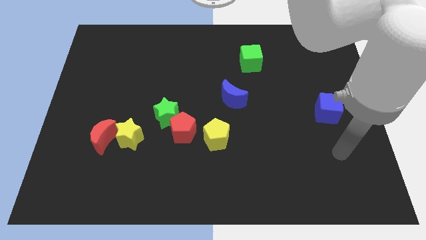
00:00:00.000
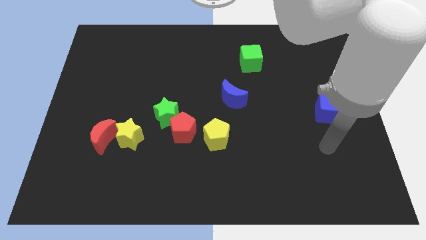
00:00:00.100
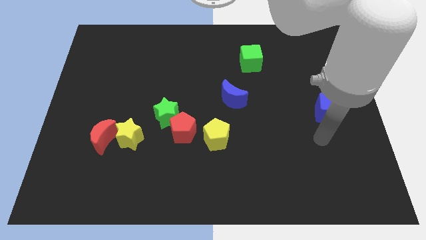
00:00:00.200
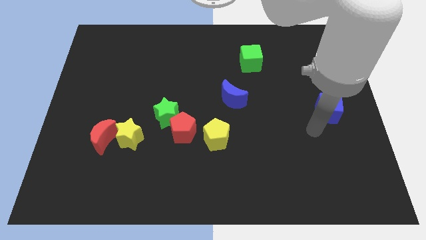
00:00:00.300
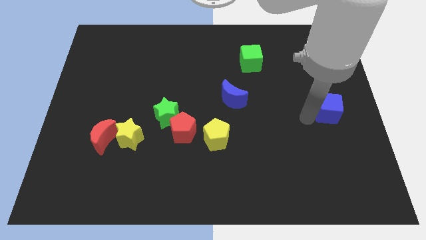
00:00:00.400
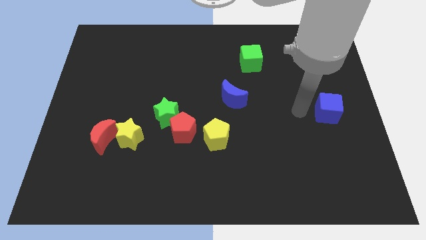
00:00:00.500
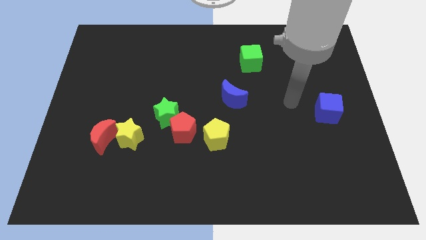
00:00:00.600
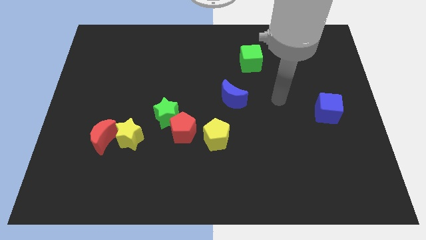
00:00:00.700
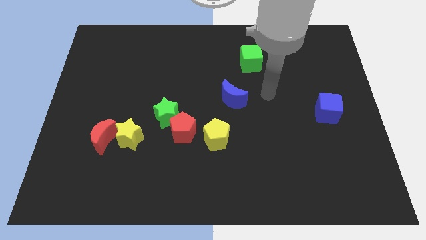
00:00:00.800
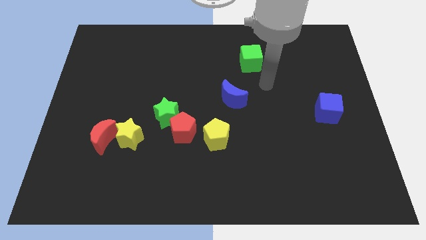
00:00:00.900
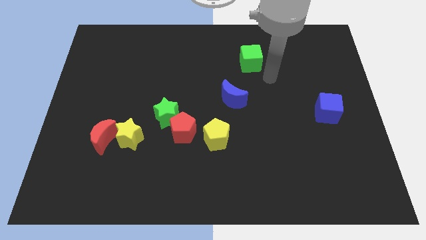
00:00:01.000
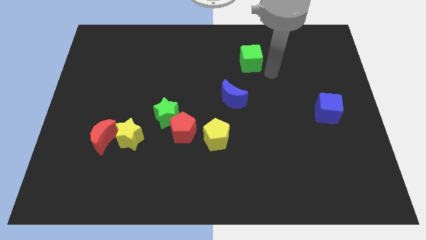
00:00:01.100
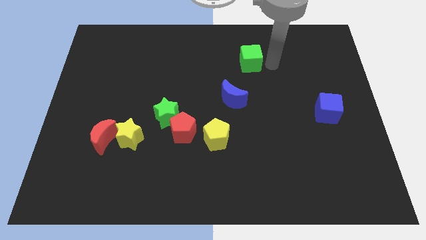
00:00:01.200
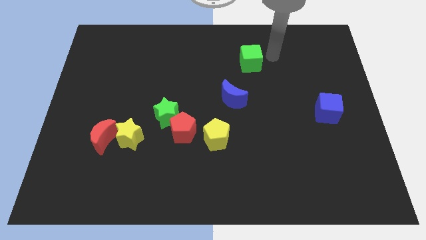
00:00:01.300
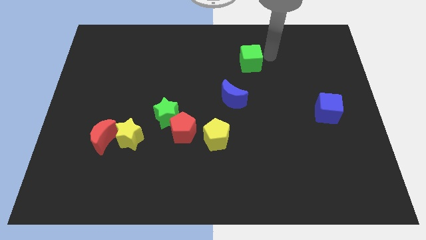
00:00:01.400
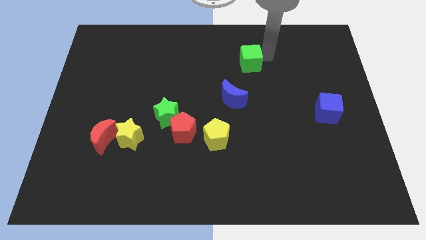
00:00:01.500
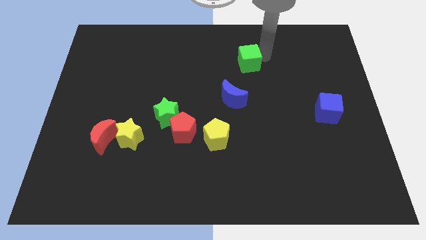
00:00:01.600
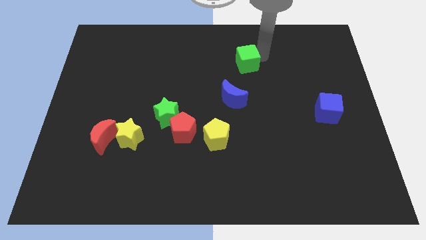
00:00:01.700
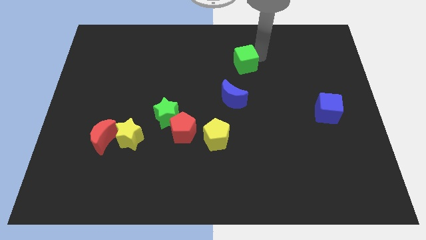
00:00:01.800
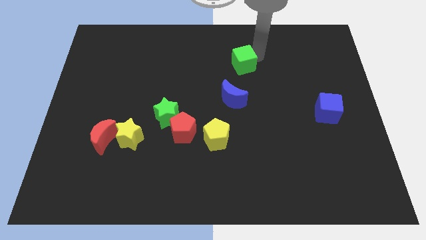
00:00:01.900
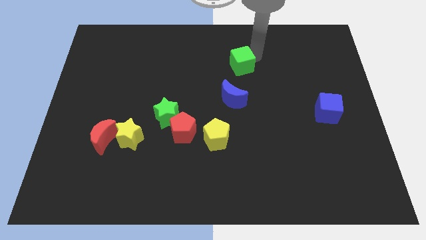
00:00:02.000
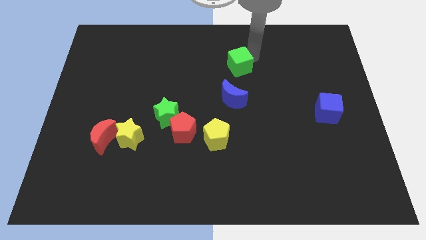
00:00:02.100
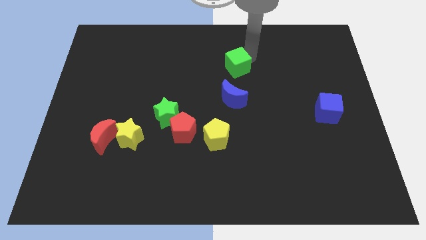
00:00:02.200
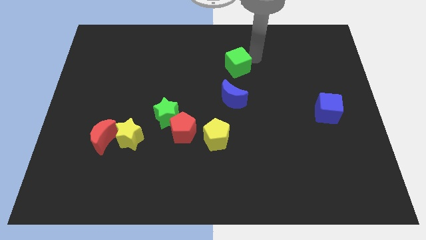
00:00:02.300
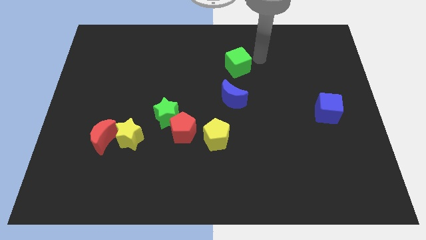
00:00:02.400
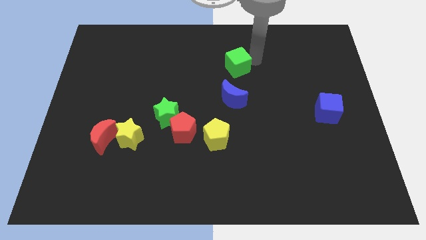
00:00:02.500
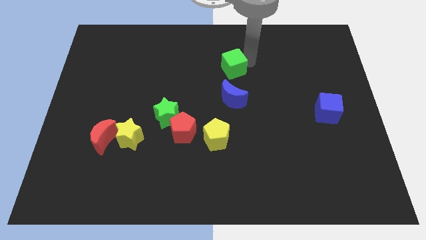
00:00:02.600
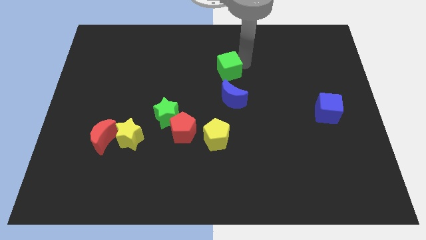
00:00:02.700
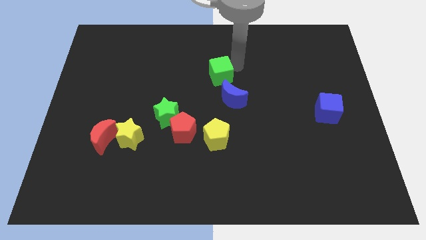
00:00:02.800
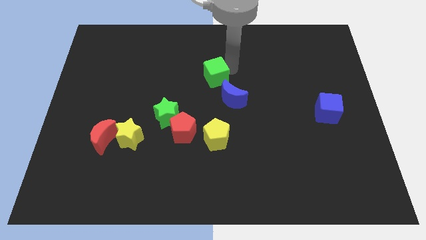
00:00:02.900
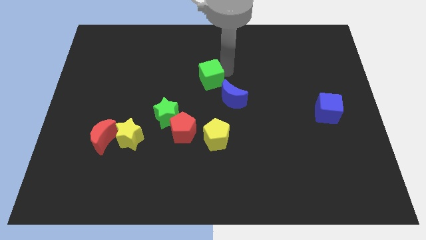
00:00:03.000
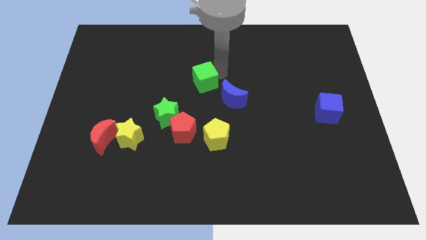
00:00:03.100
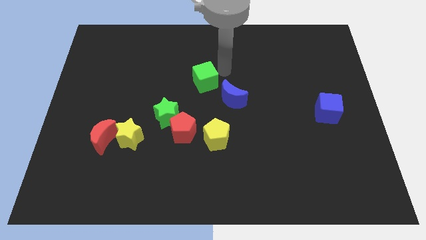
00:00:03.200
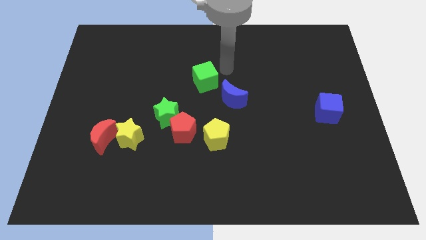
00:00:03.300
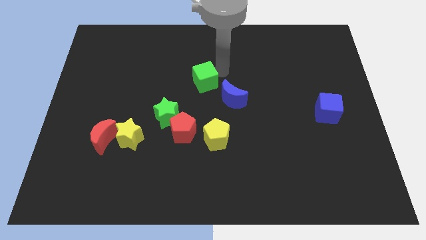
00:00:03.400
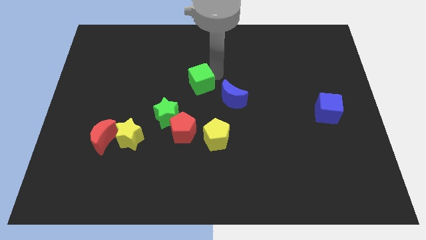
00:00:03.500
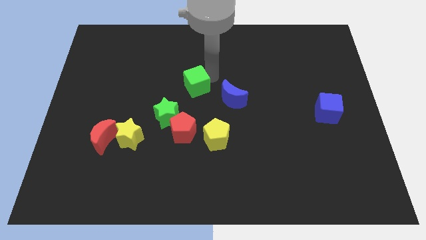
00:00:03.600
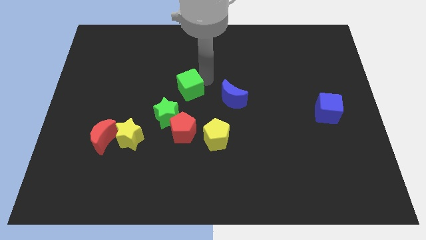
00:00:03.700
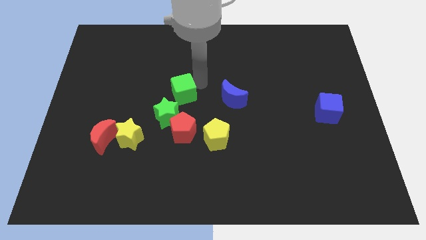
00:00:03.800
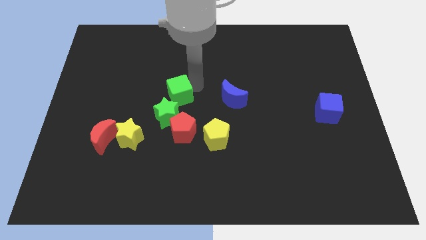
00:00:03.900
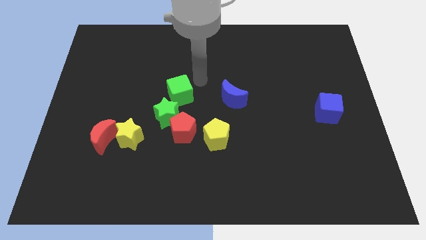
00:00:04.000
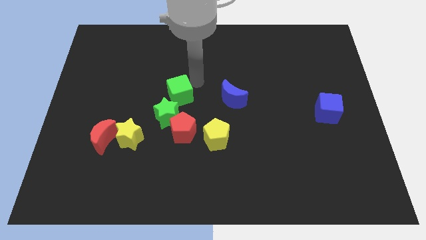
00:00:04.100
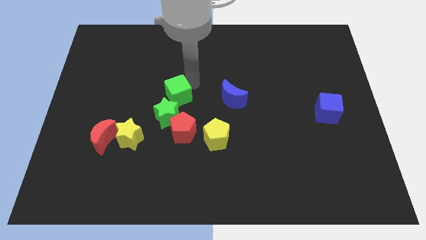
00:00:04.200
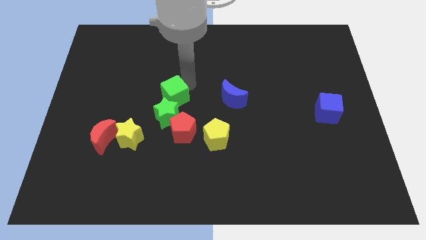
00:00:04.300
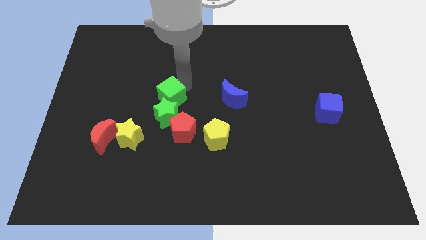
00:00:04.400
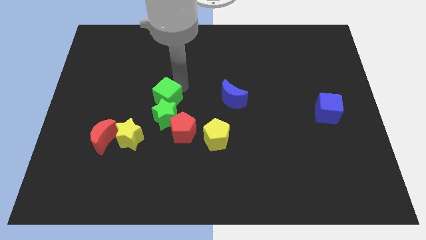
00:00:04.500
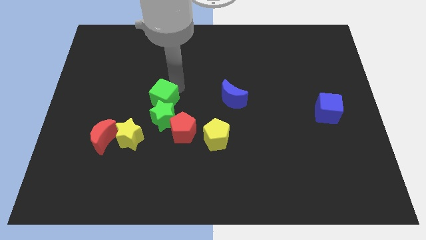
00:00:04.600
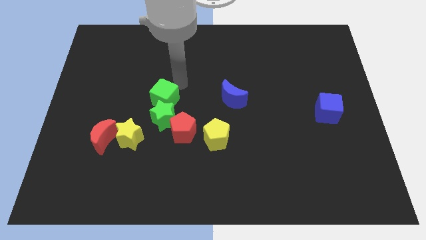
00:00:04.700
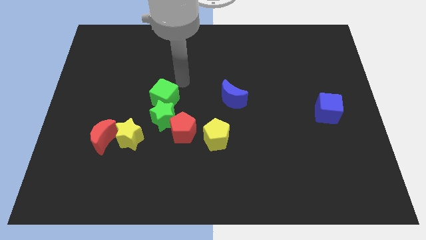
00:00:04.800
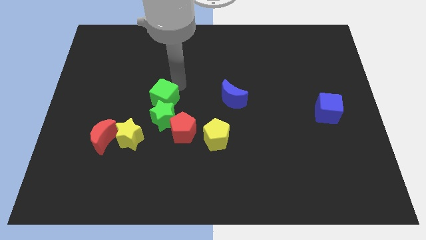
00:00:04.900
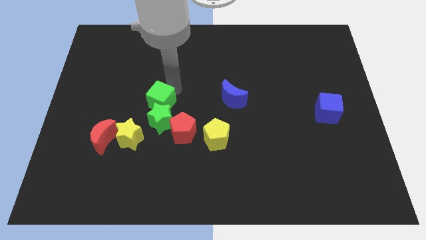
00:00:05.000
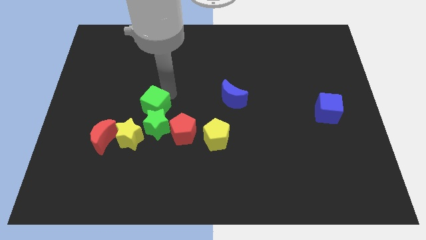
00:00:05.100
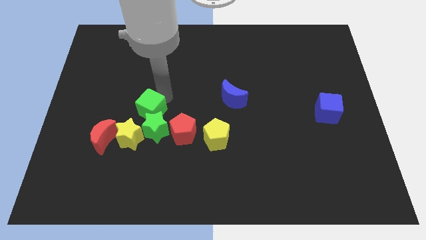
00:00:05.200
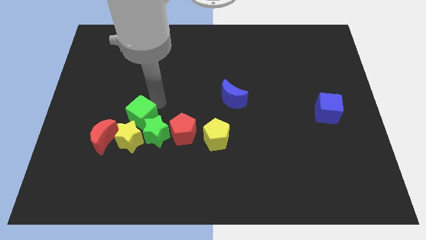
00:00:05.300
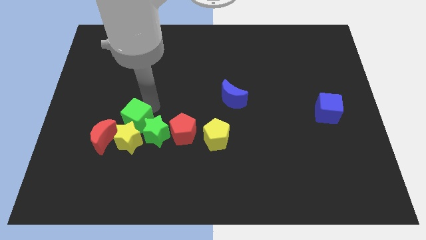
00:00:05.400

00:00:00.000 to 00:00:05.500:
push the green cube to the yellow star

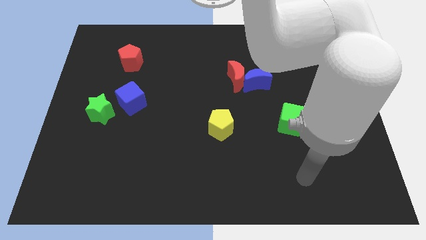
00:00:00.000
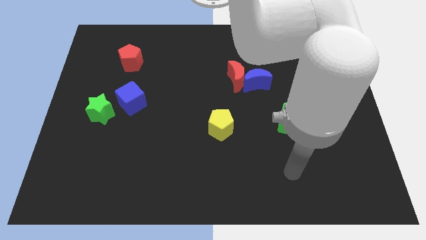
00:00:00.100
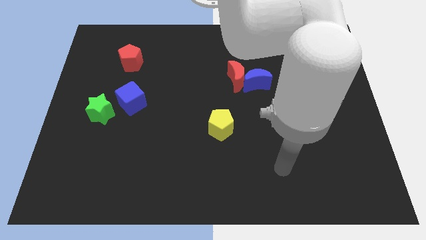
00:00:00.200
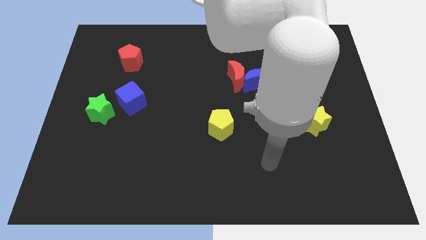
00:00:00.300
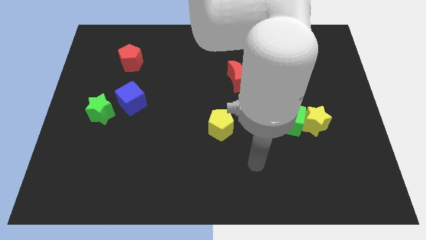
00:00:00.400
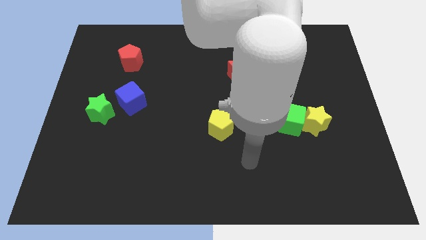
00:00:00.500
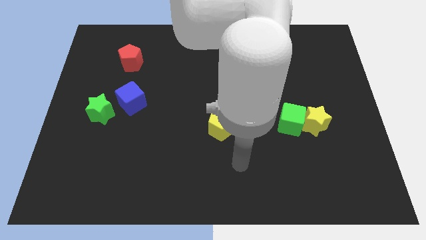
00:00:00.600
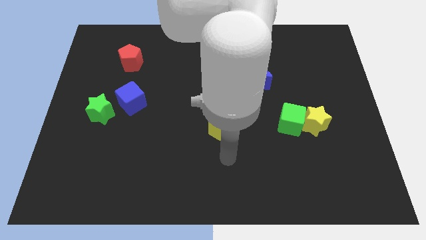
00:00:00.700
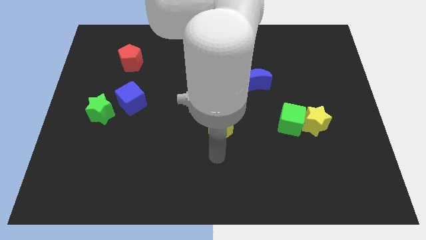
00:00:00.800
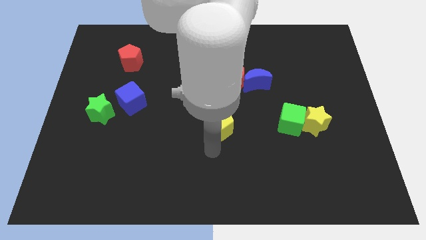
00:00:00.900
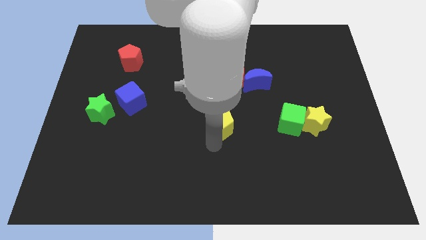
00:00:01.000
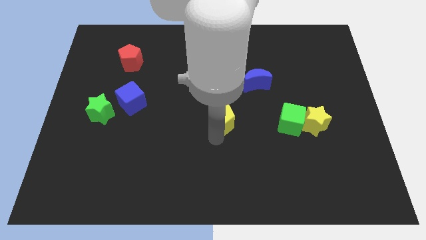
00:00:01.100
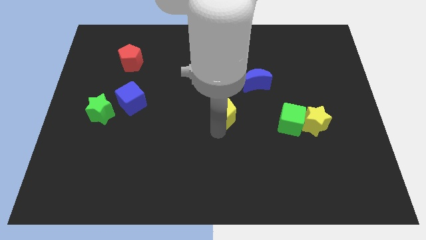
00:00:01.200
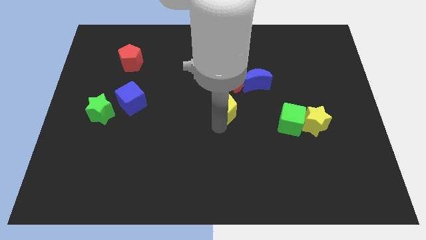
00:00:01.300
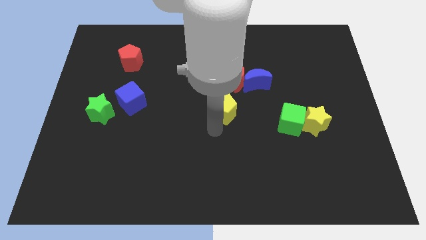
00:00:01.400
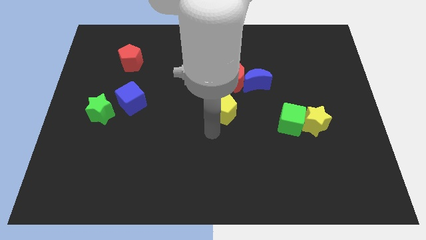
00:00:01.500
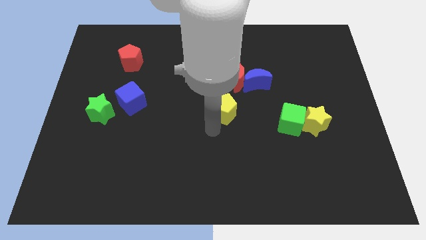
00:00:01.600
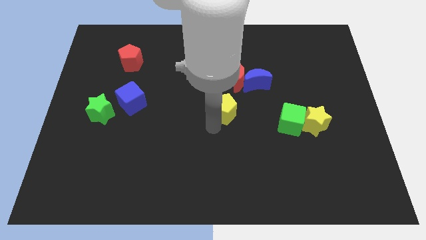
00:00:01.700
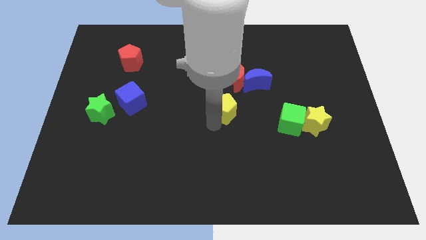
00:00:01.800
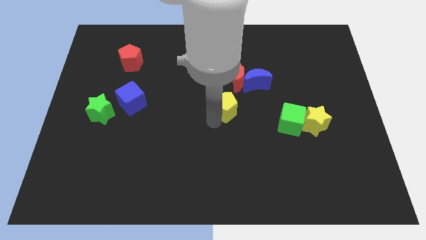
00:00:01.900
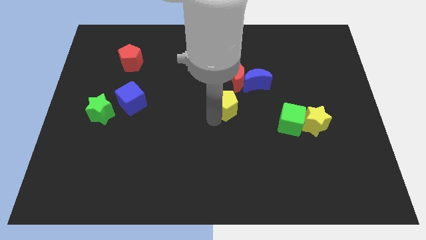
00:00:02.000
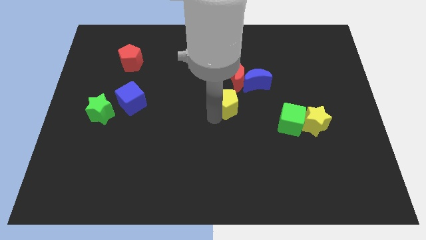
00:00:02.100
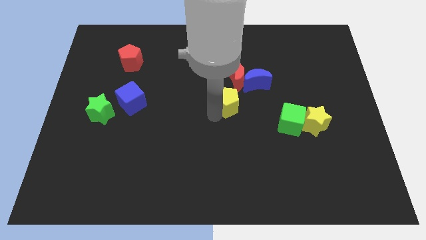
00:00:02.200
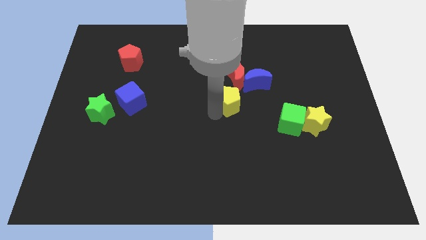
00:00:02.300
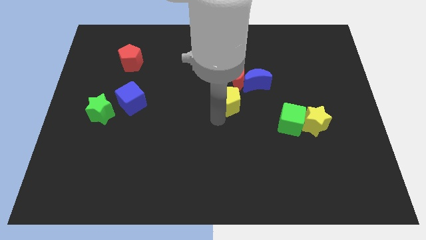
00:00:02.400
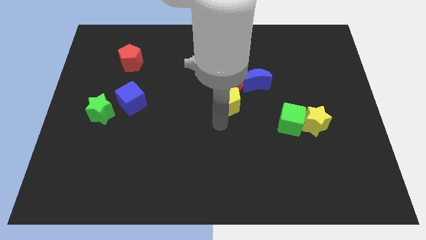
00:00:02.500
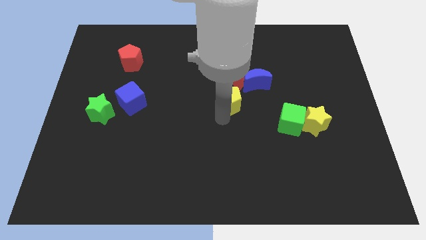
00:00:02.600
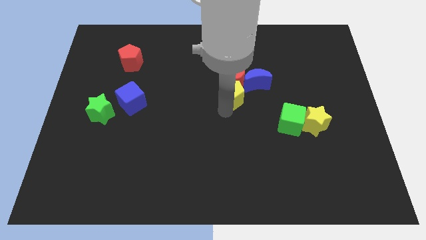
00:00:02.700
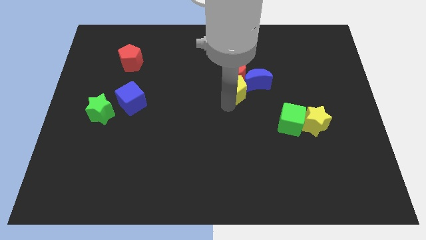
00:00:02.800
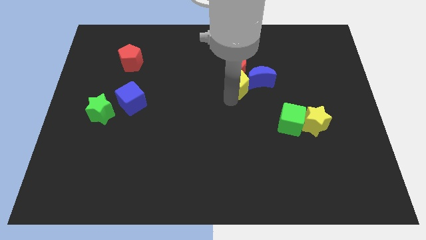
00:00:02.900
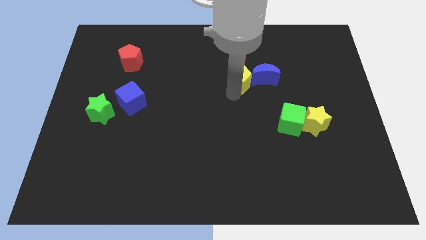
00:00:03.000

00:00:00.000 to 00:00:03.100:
push the yellow pentagon next to the red moon
